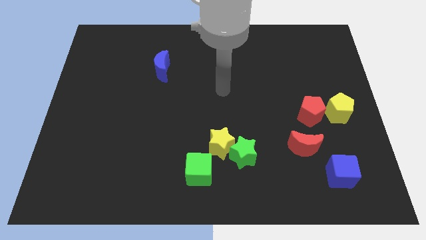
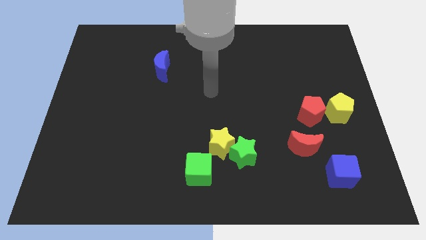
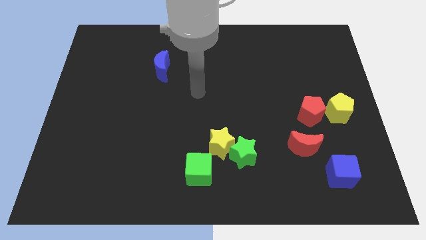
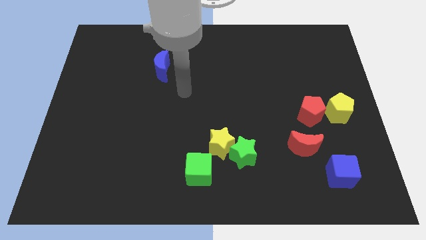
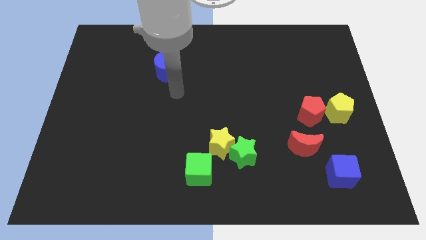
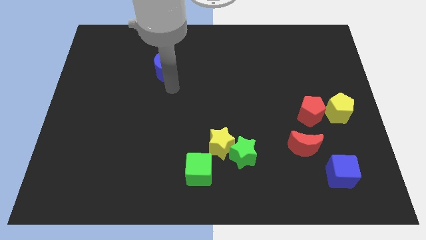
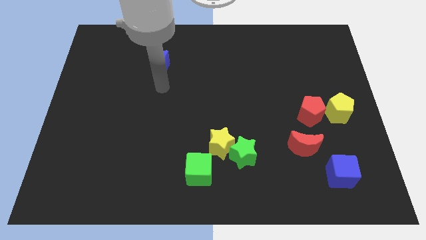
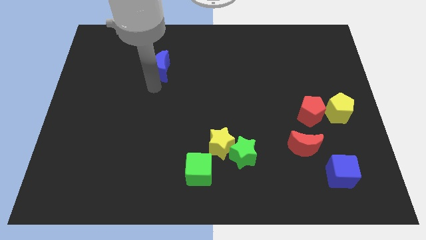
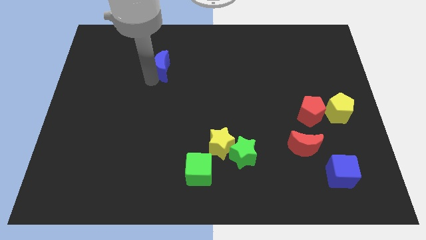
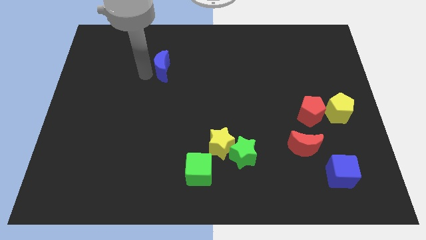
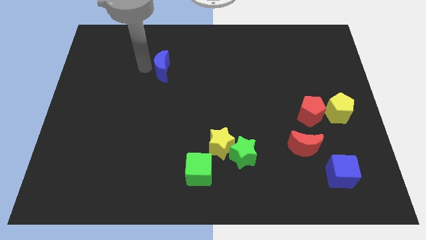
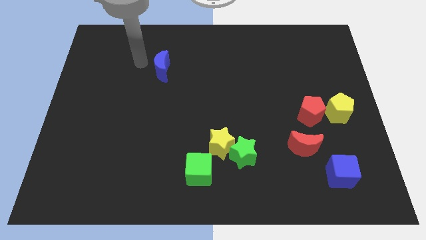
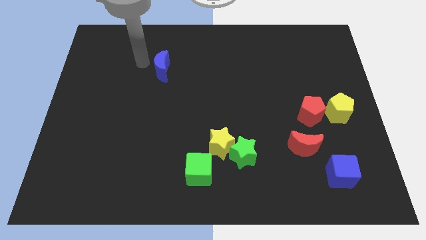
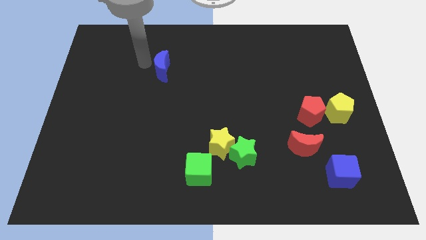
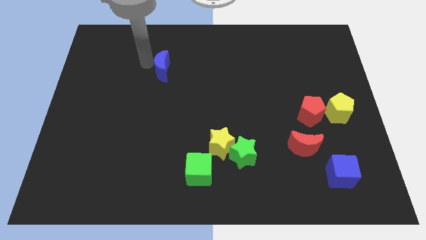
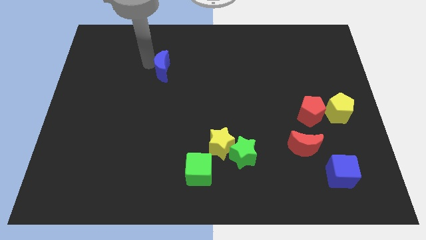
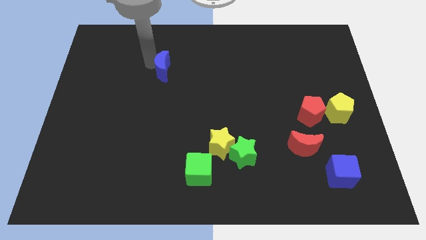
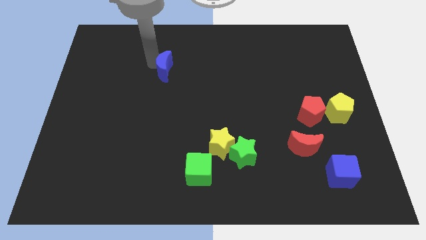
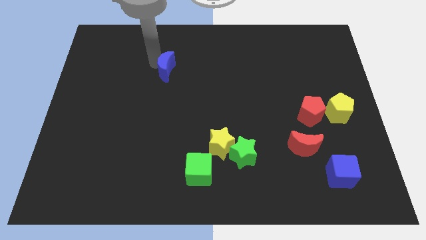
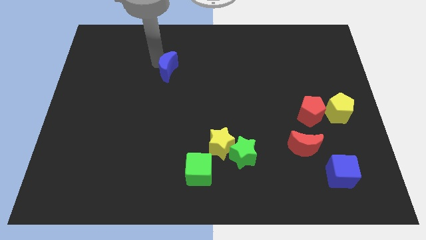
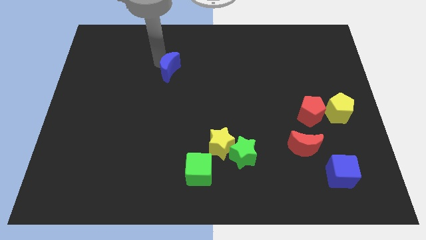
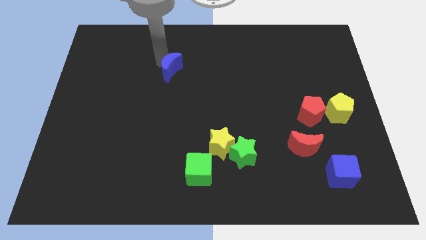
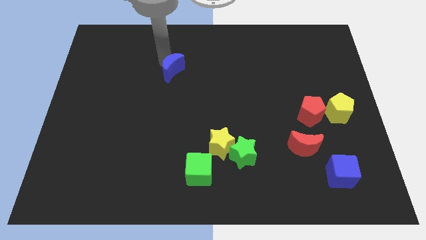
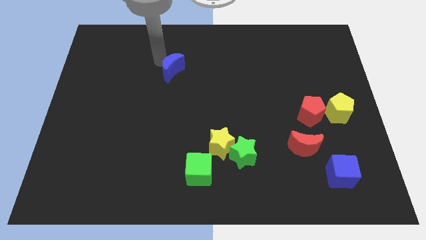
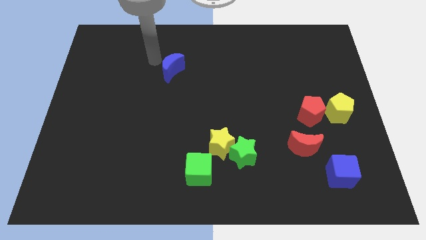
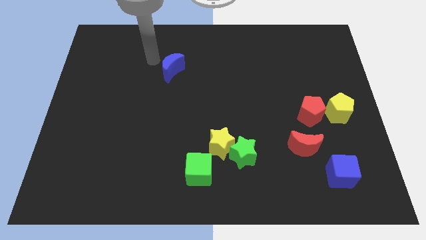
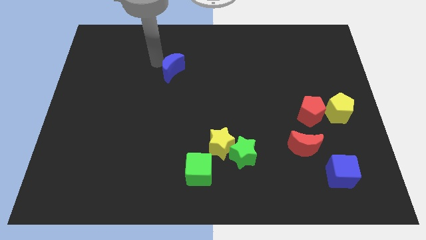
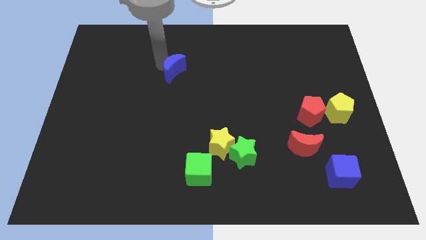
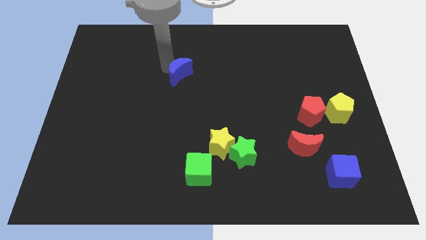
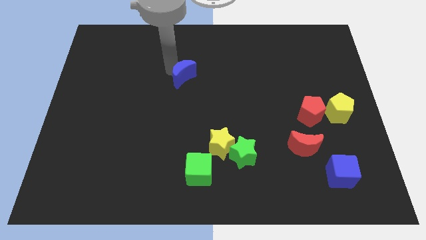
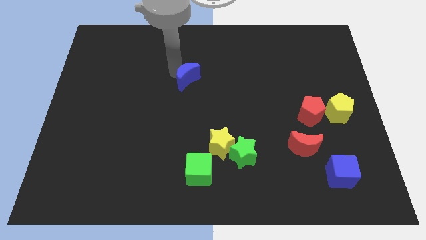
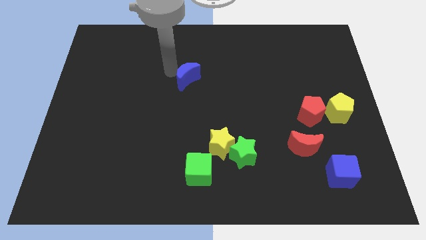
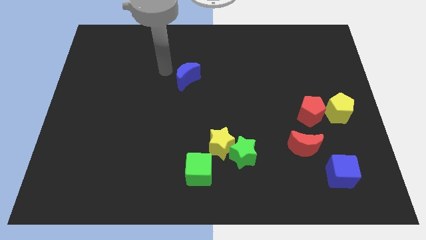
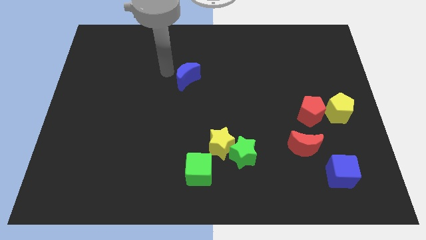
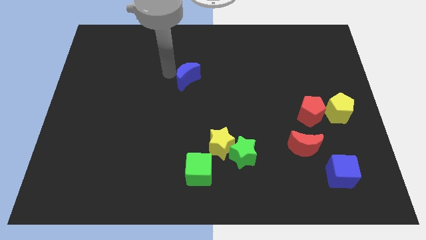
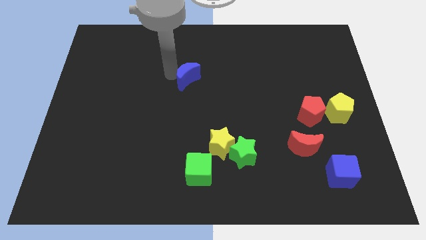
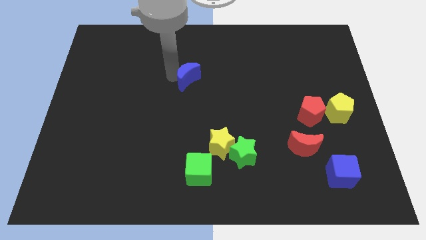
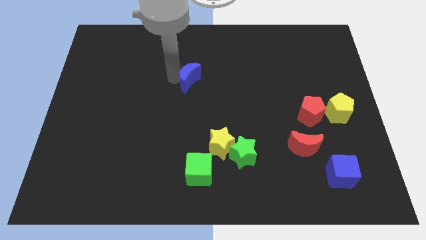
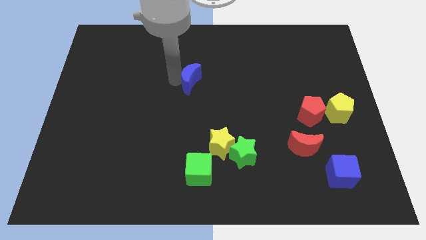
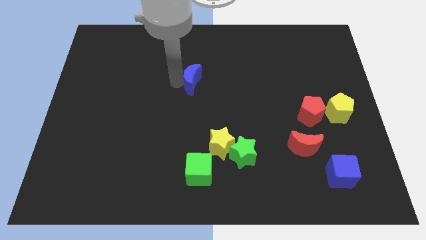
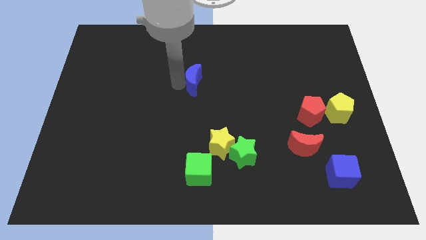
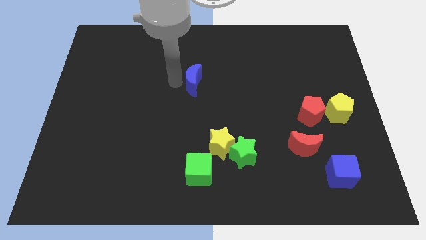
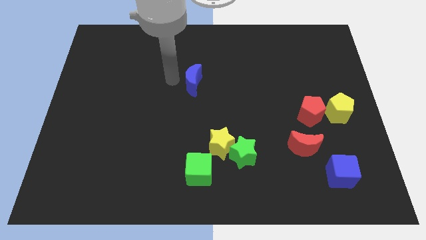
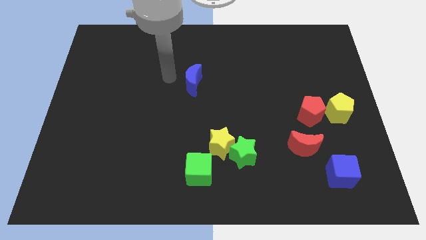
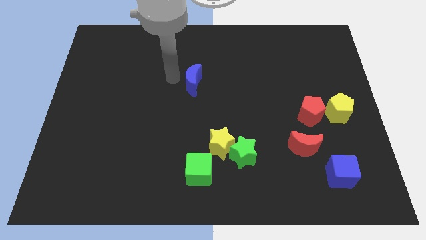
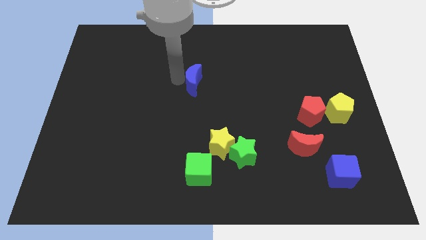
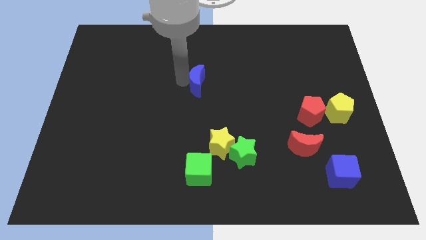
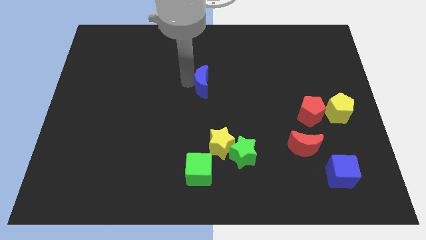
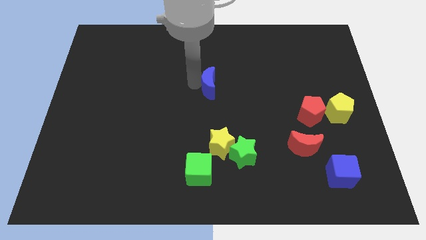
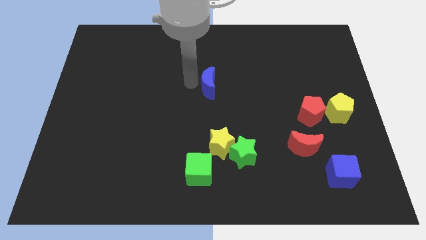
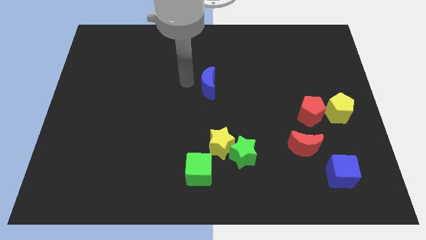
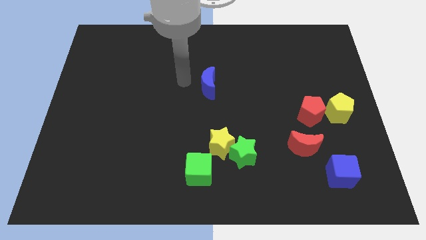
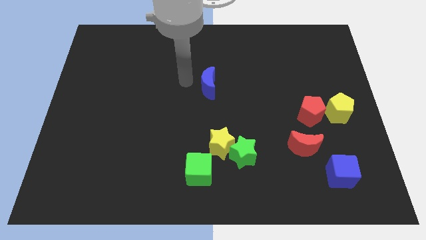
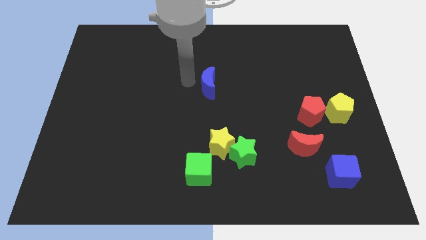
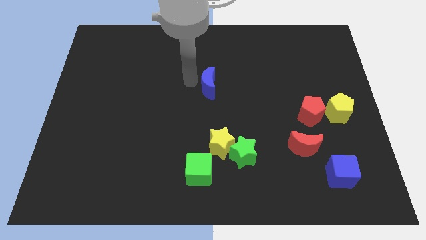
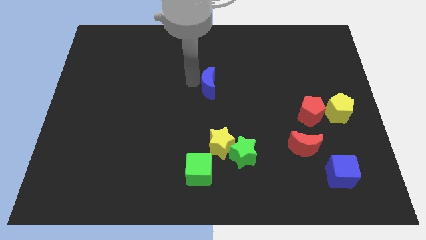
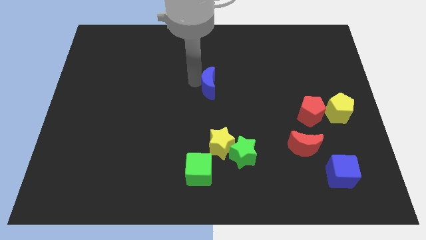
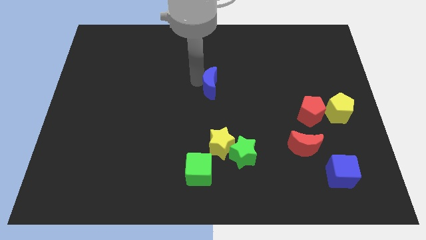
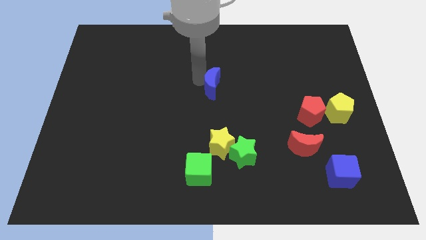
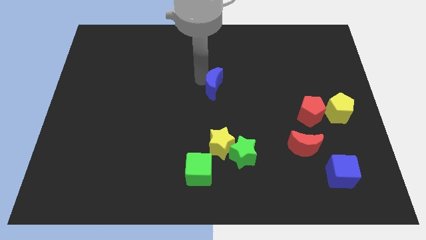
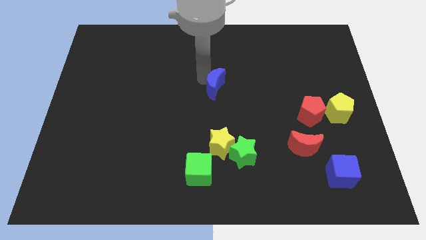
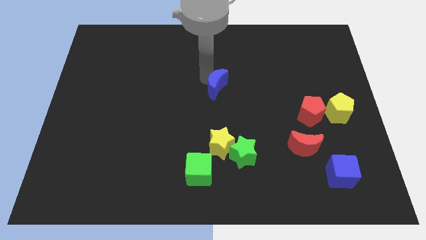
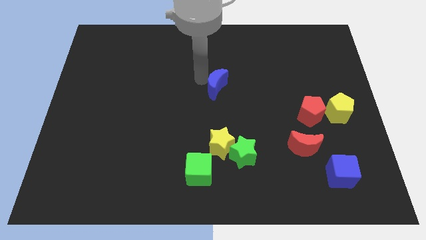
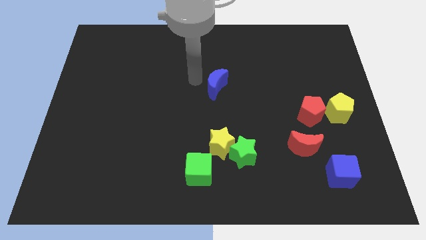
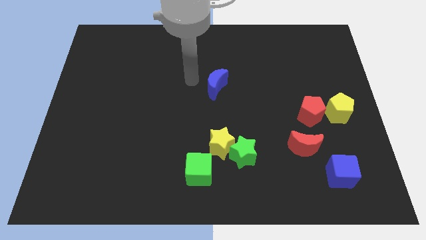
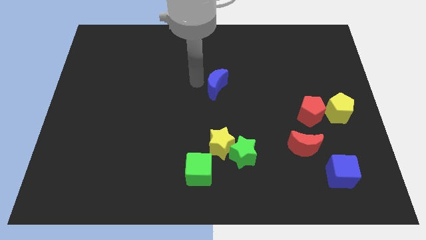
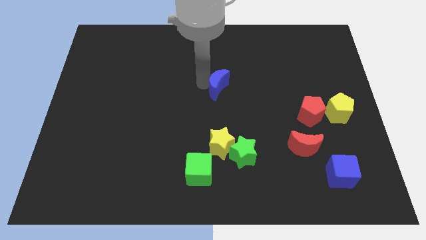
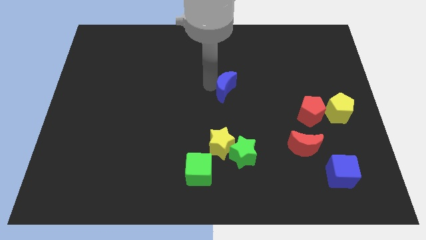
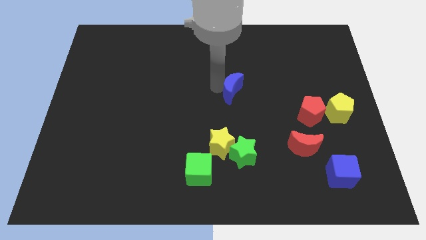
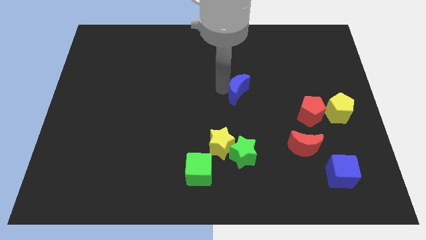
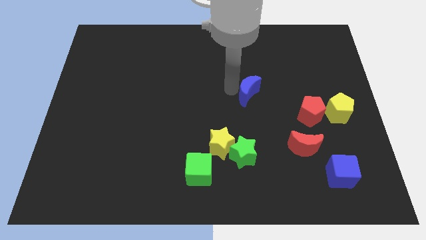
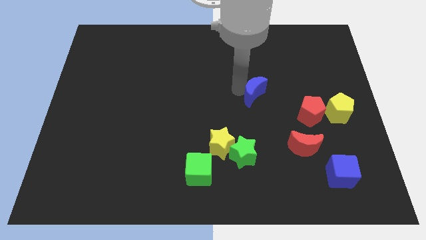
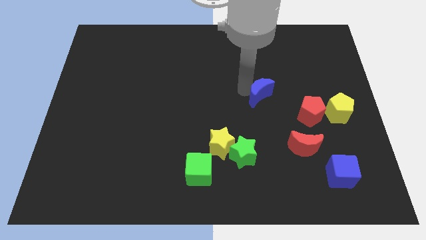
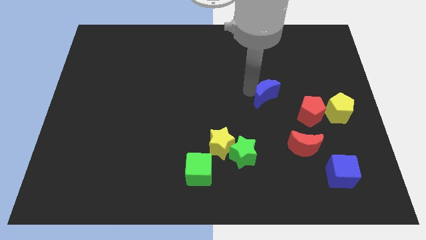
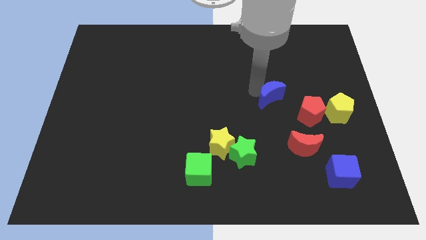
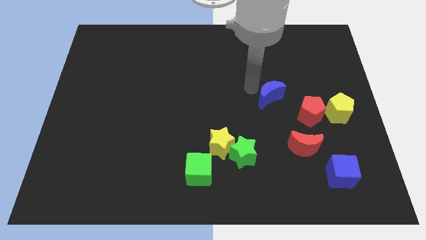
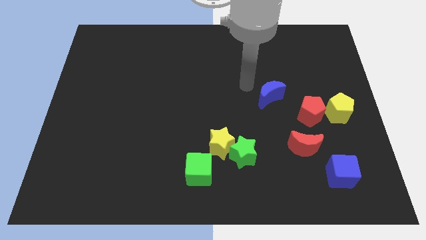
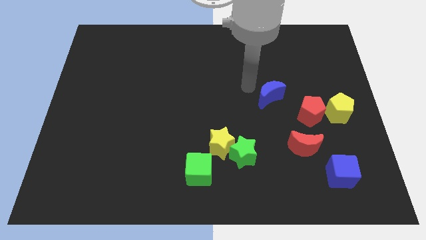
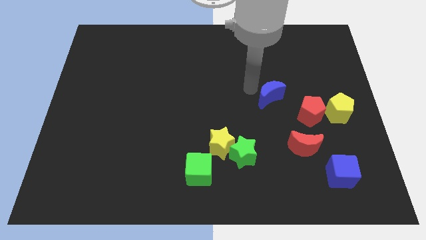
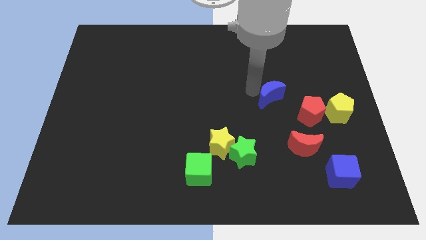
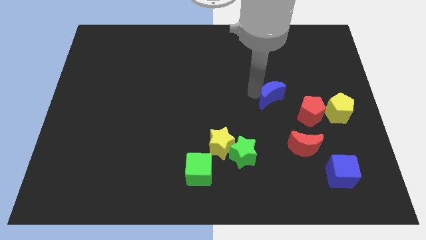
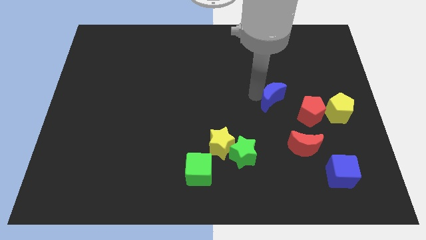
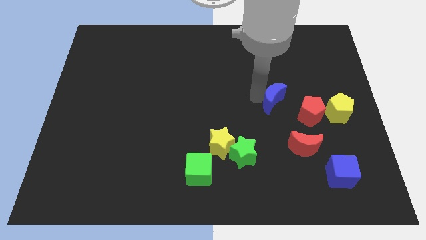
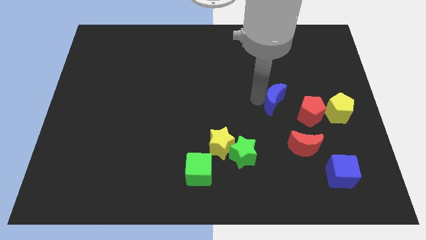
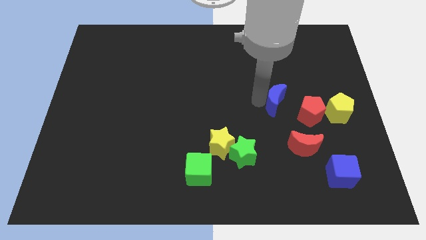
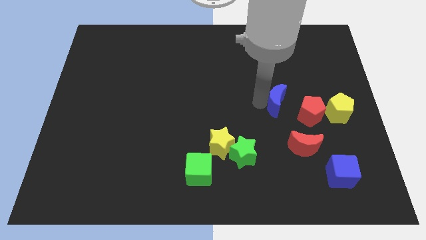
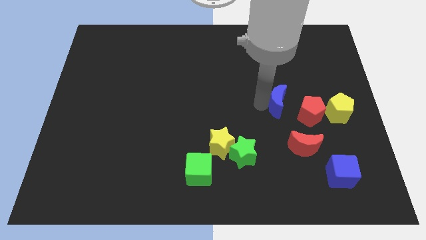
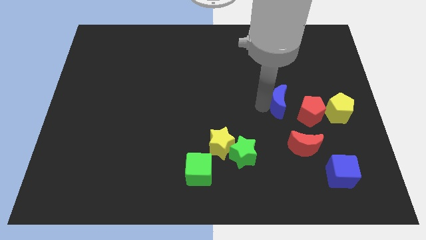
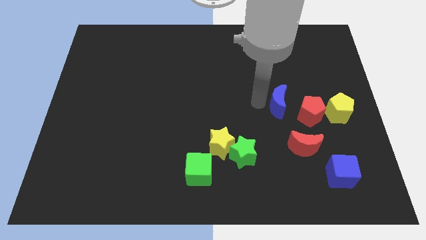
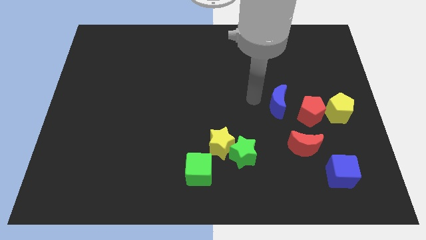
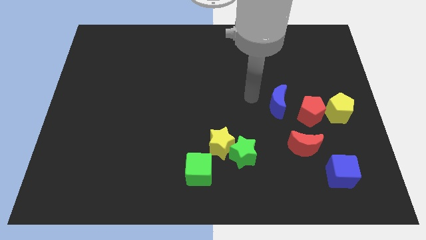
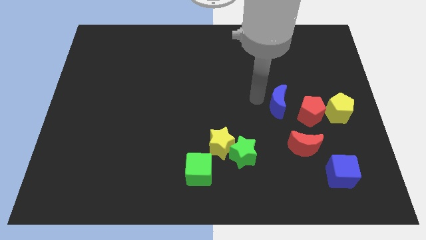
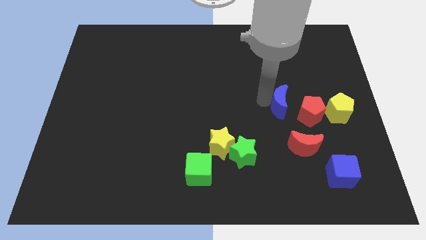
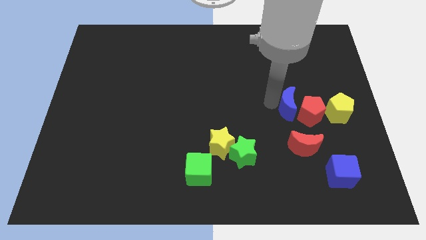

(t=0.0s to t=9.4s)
push the blue moon towards the red pentagon
